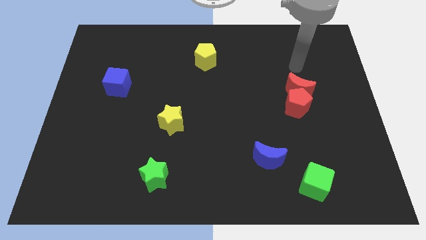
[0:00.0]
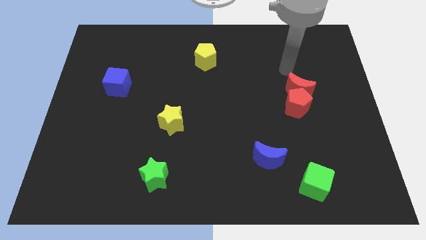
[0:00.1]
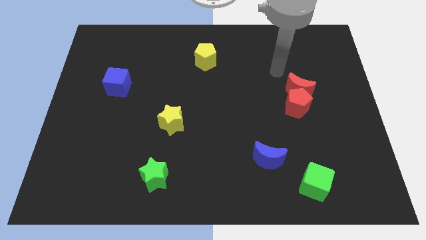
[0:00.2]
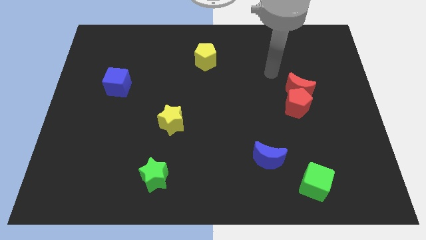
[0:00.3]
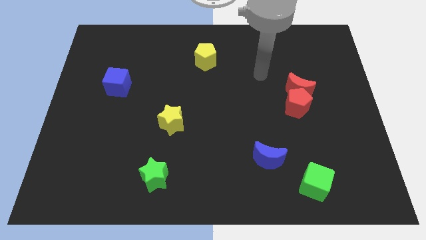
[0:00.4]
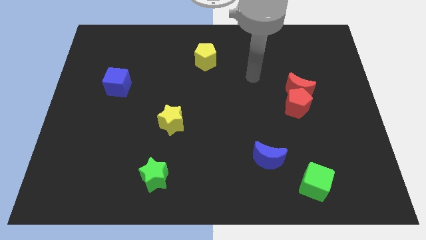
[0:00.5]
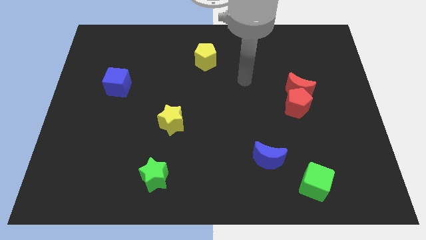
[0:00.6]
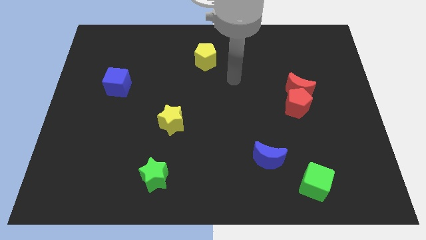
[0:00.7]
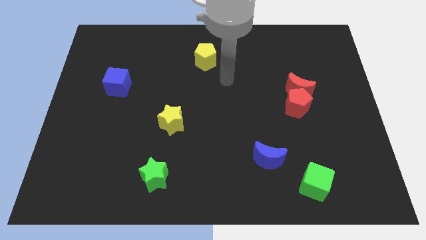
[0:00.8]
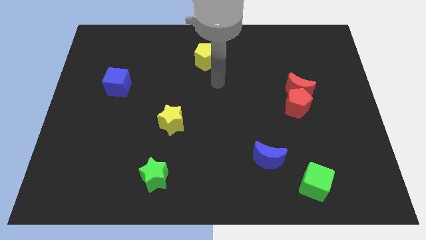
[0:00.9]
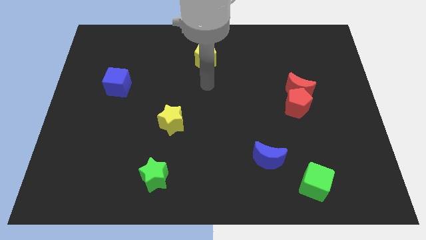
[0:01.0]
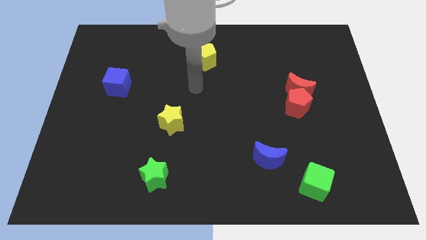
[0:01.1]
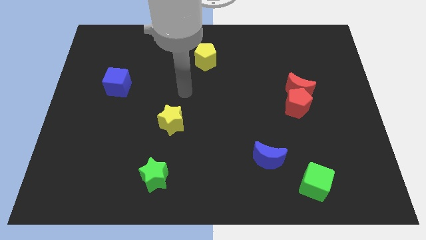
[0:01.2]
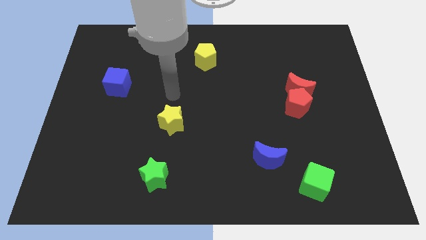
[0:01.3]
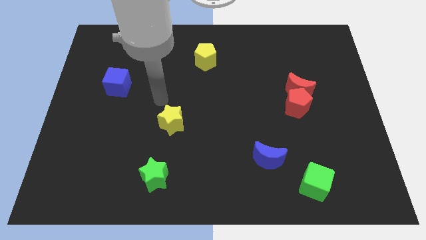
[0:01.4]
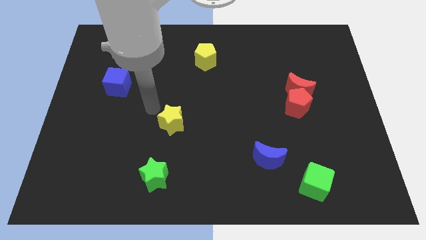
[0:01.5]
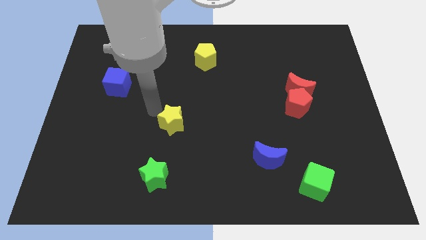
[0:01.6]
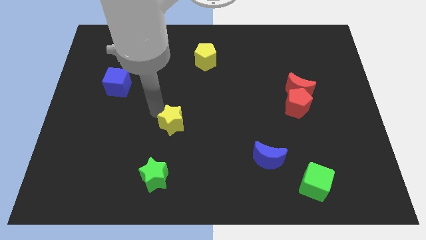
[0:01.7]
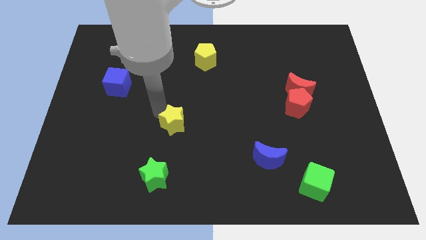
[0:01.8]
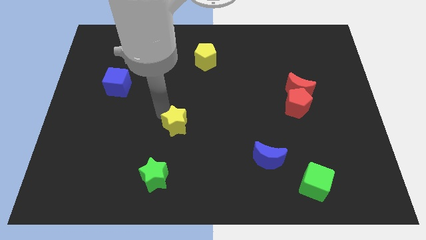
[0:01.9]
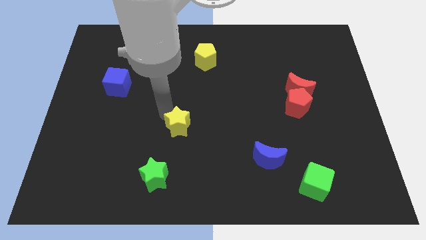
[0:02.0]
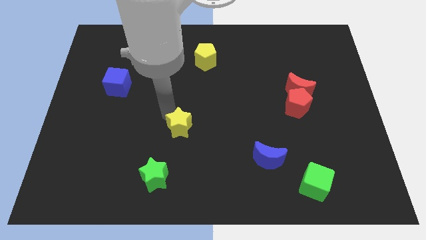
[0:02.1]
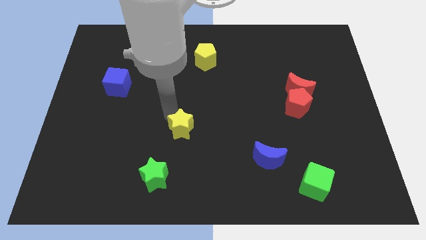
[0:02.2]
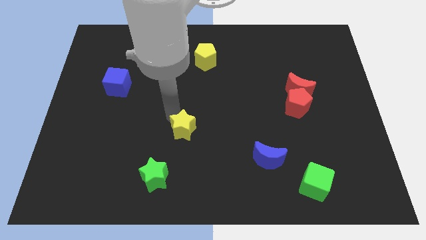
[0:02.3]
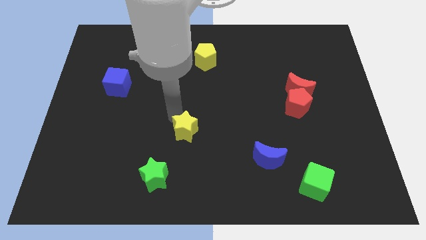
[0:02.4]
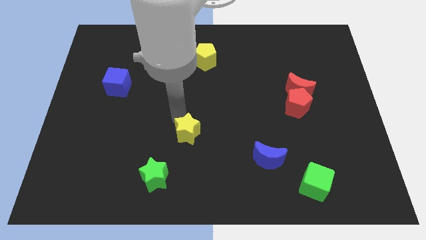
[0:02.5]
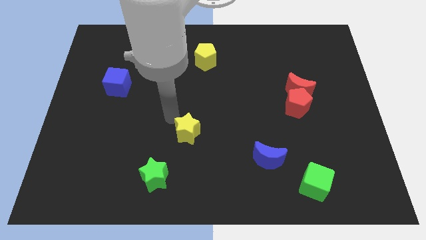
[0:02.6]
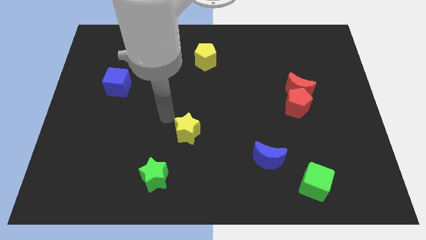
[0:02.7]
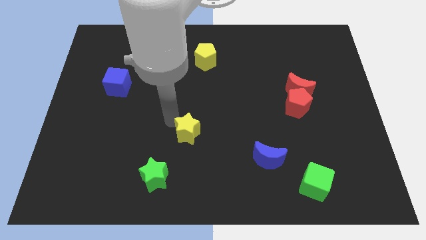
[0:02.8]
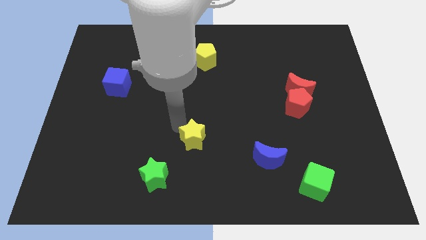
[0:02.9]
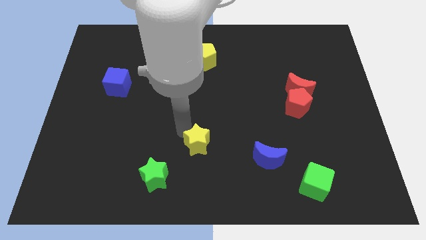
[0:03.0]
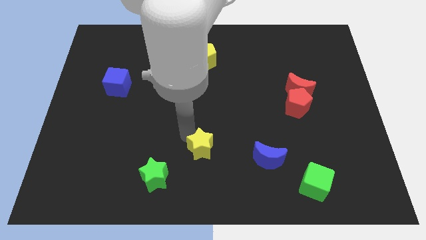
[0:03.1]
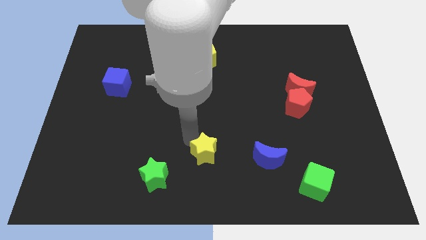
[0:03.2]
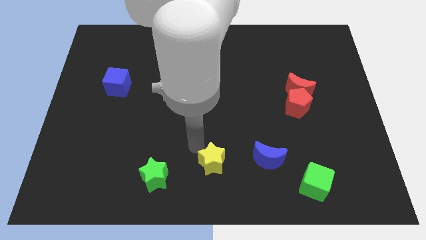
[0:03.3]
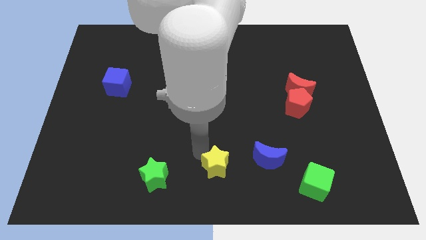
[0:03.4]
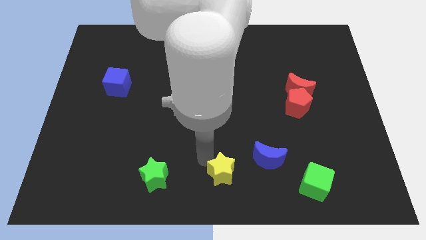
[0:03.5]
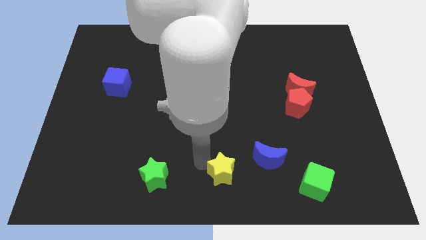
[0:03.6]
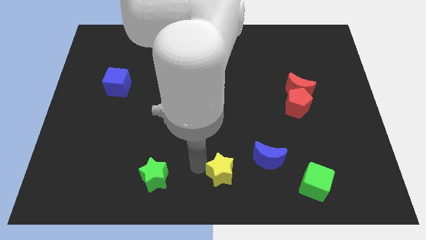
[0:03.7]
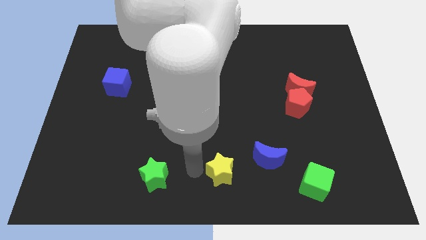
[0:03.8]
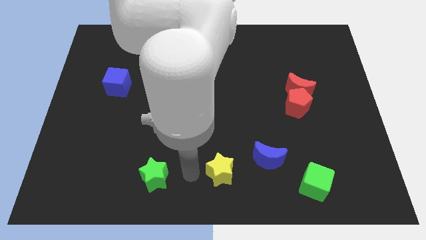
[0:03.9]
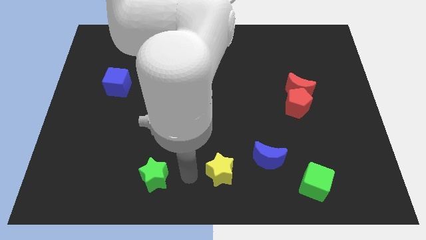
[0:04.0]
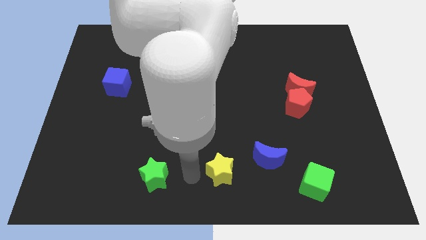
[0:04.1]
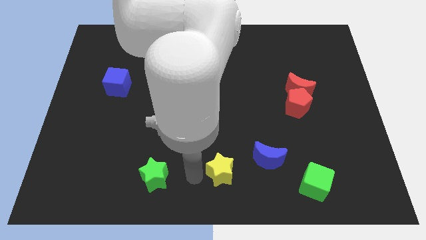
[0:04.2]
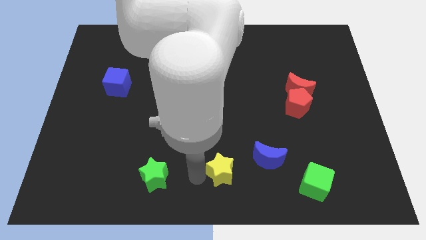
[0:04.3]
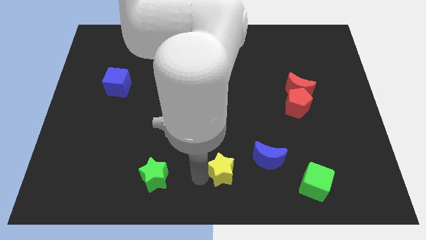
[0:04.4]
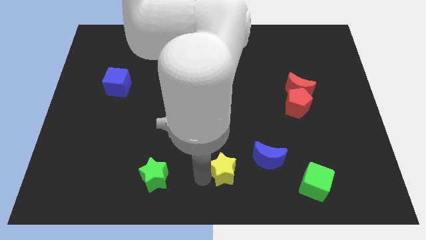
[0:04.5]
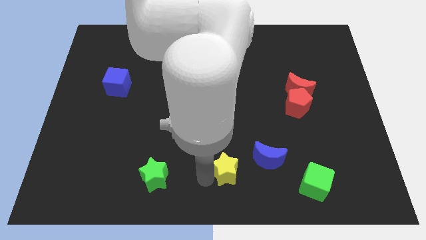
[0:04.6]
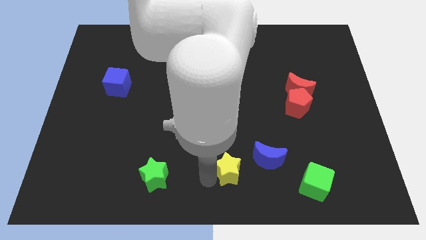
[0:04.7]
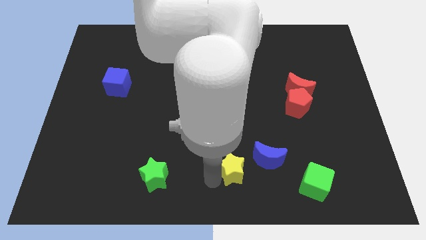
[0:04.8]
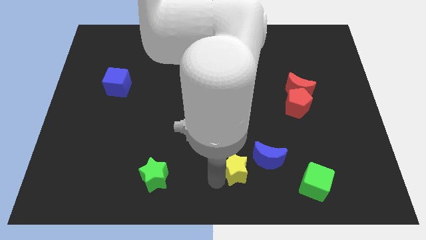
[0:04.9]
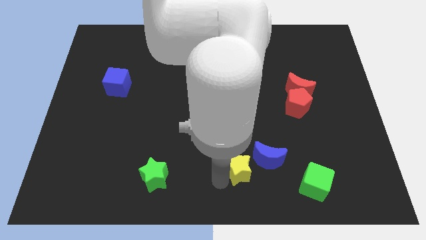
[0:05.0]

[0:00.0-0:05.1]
move the yellow star left of the green cube

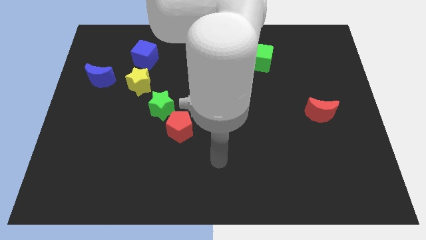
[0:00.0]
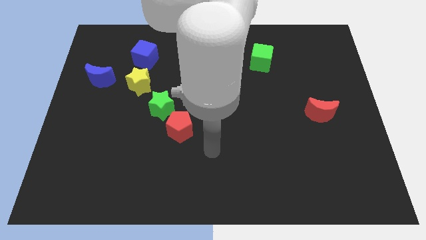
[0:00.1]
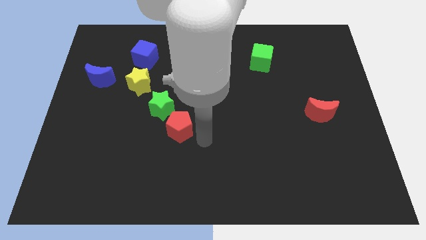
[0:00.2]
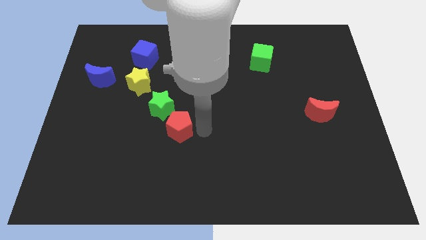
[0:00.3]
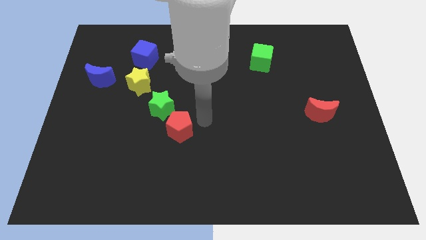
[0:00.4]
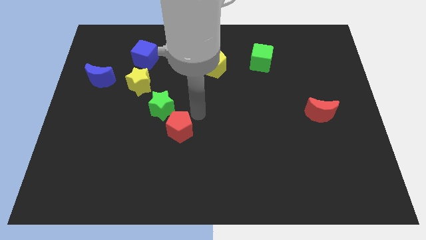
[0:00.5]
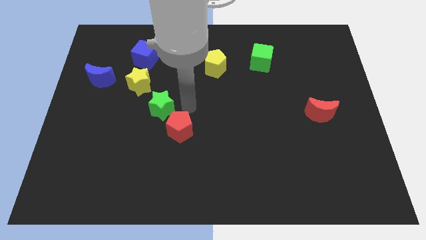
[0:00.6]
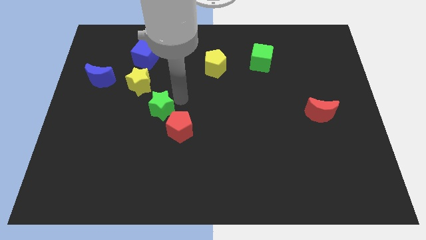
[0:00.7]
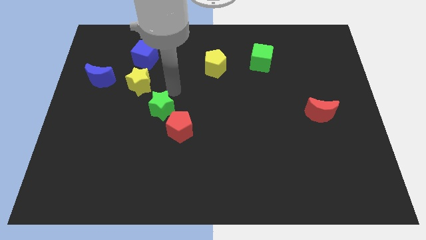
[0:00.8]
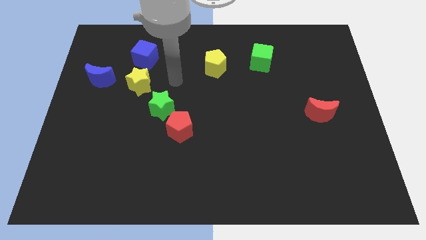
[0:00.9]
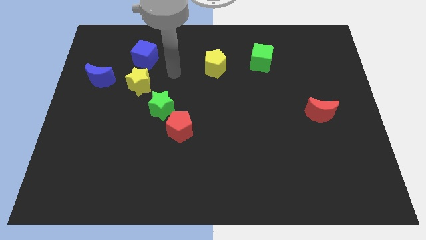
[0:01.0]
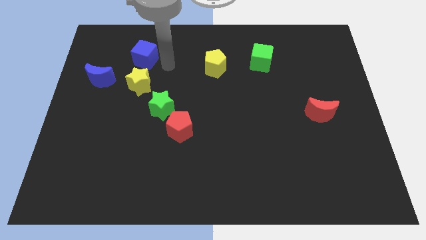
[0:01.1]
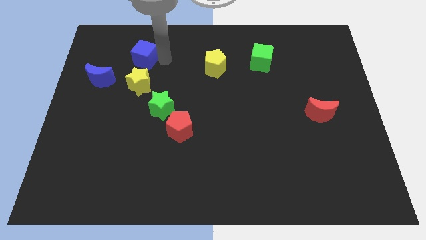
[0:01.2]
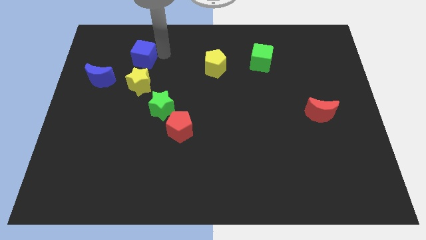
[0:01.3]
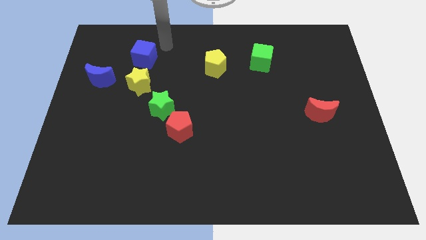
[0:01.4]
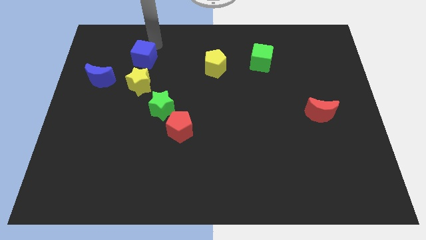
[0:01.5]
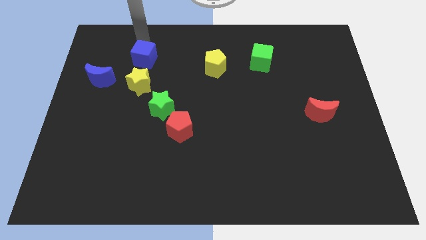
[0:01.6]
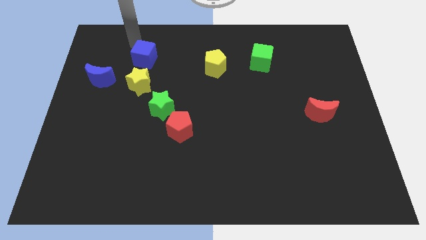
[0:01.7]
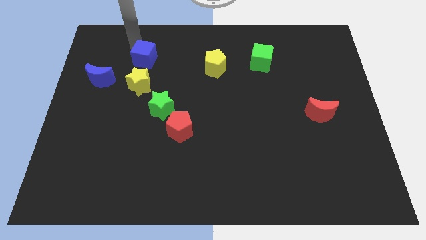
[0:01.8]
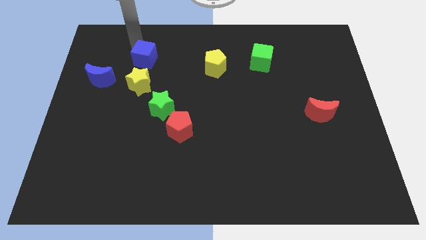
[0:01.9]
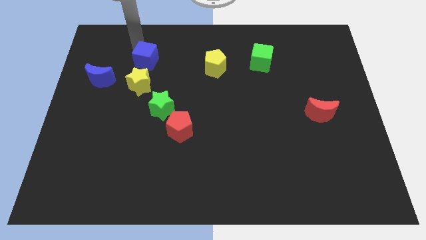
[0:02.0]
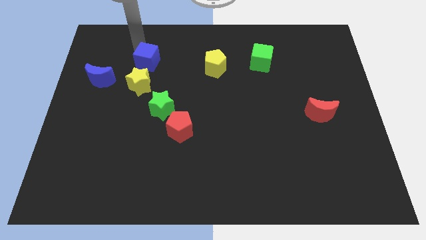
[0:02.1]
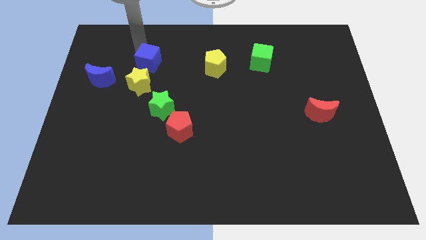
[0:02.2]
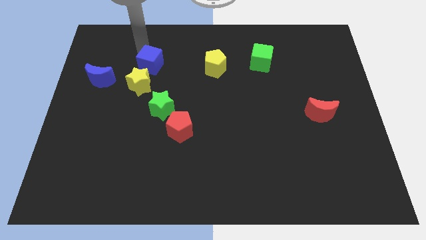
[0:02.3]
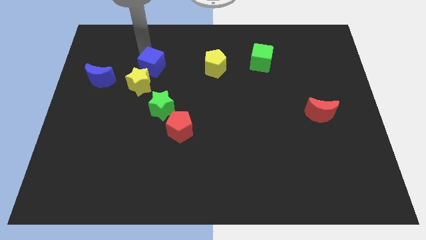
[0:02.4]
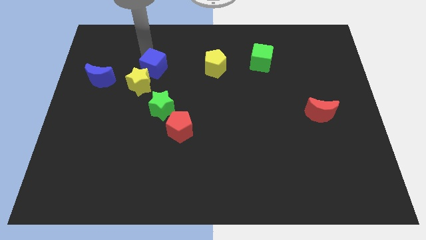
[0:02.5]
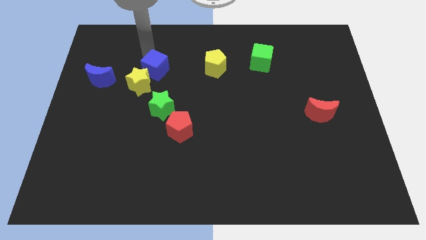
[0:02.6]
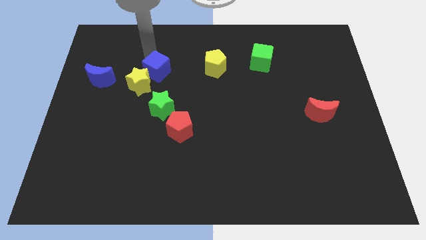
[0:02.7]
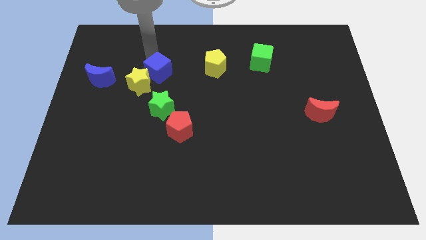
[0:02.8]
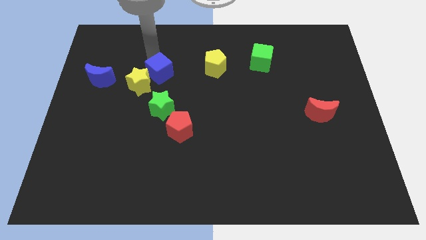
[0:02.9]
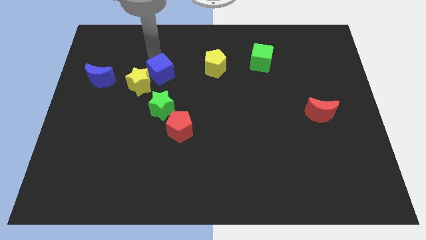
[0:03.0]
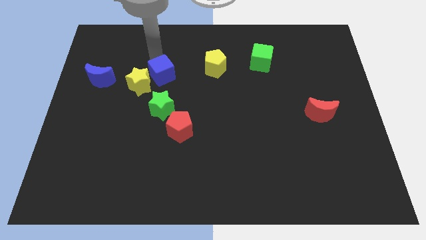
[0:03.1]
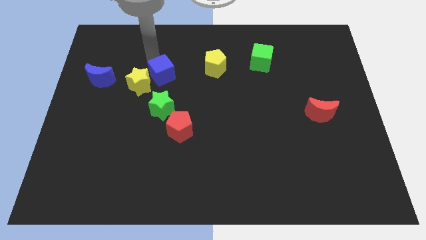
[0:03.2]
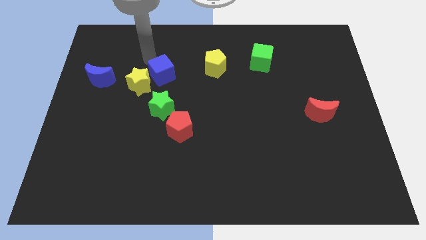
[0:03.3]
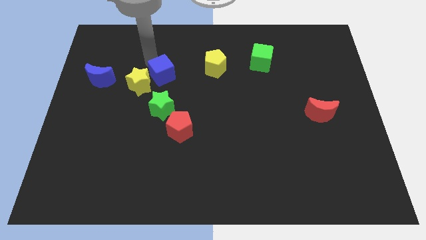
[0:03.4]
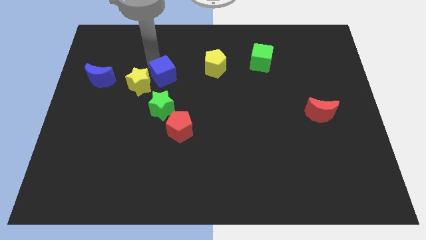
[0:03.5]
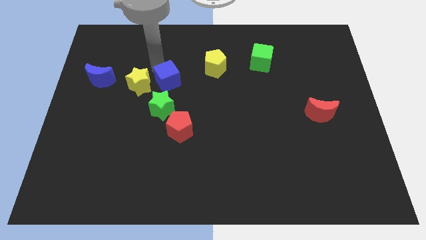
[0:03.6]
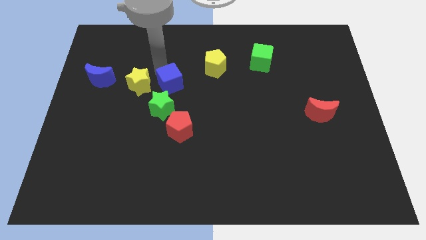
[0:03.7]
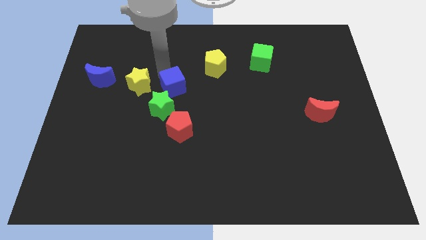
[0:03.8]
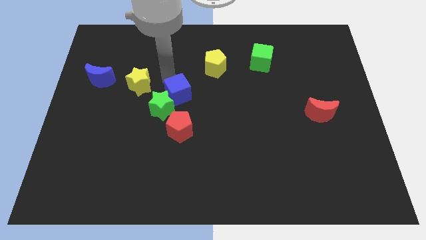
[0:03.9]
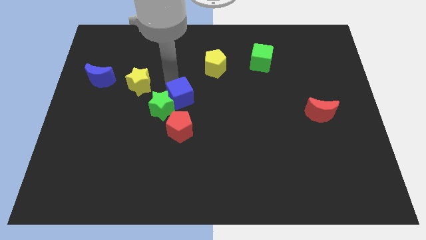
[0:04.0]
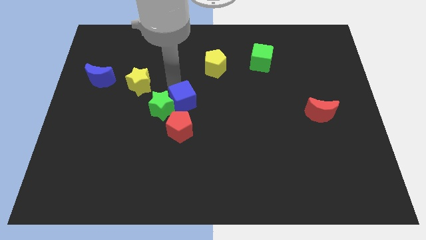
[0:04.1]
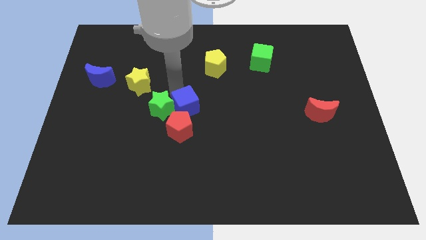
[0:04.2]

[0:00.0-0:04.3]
slide the blue cube to the top right side of the red pentagon
